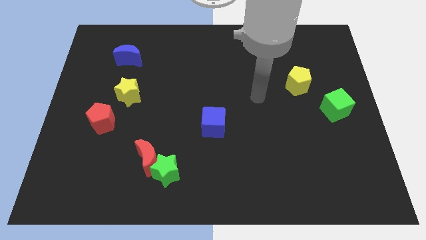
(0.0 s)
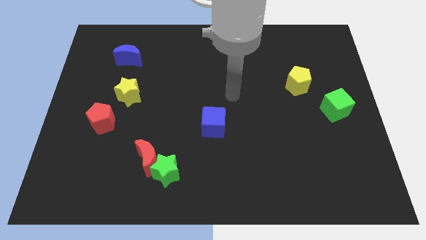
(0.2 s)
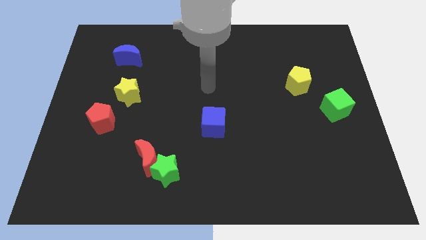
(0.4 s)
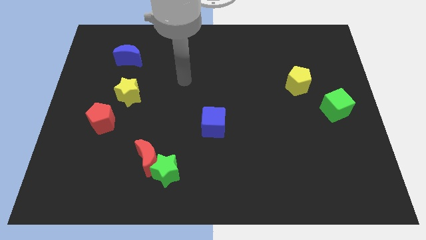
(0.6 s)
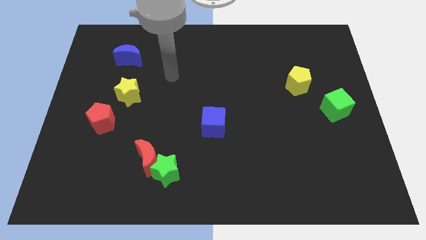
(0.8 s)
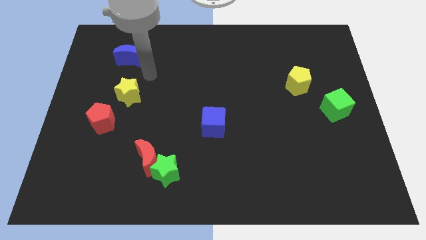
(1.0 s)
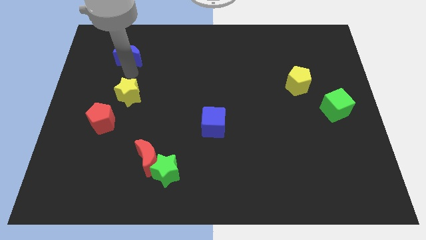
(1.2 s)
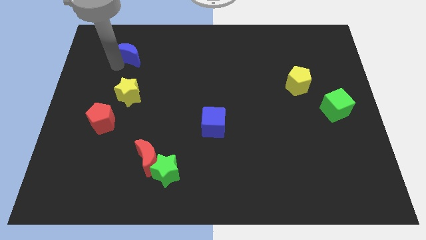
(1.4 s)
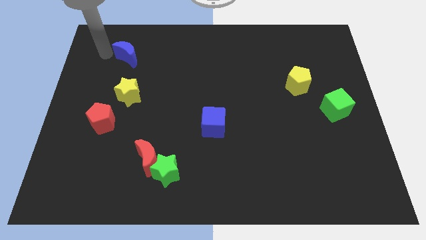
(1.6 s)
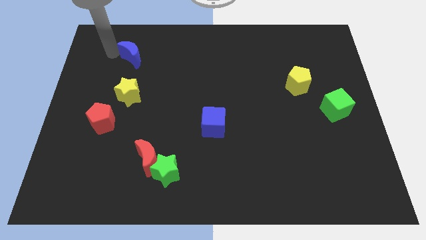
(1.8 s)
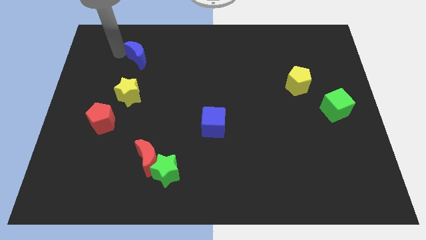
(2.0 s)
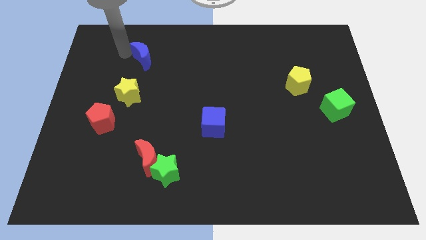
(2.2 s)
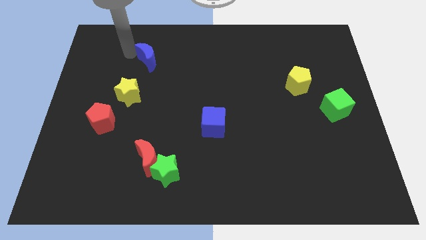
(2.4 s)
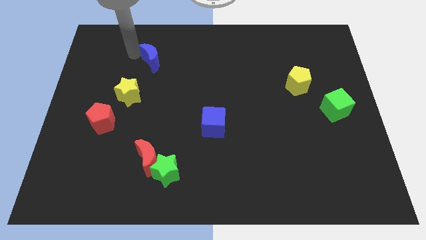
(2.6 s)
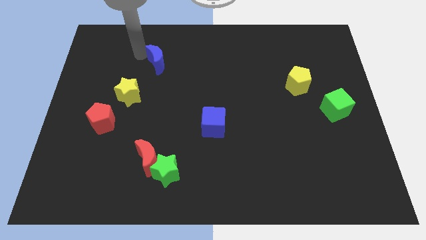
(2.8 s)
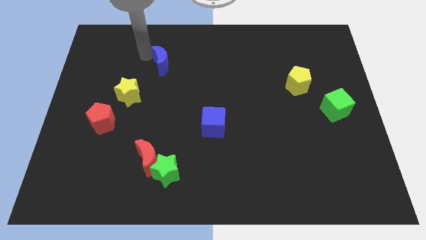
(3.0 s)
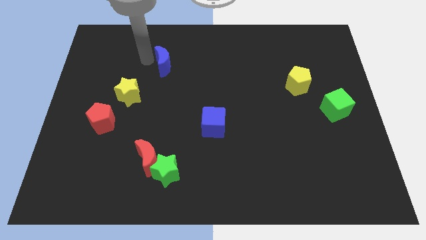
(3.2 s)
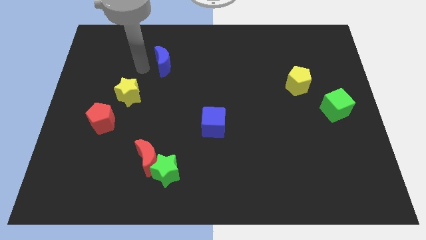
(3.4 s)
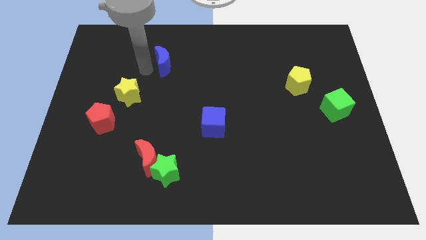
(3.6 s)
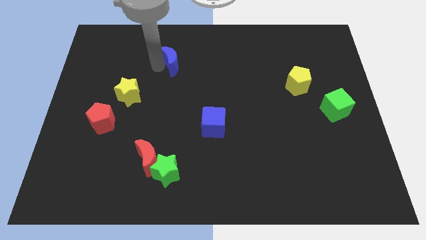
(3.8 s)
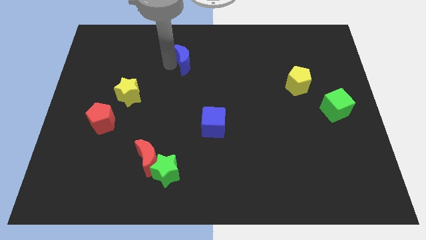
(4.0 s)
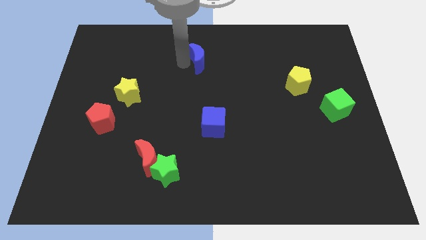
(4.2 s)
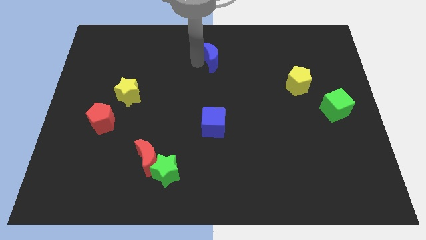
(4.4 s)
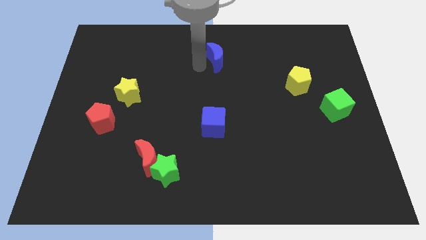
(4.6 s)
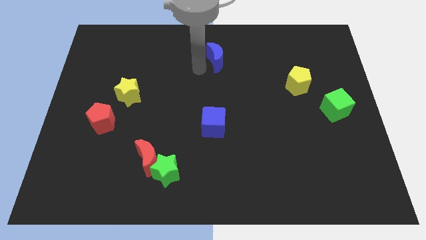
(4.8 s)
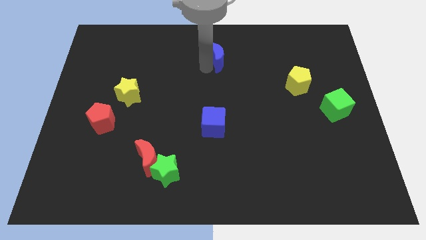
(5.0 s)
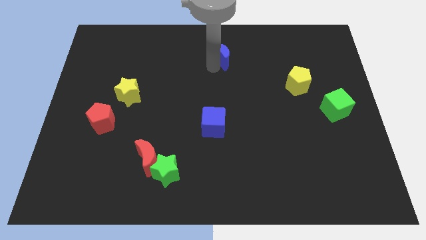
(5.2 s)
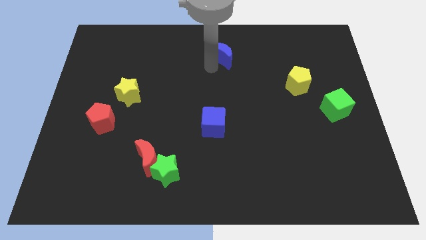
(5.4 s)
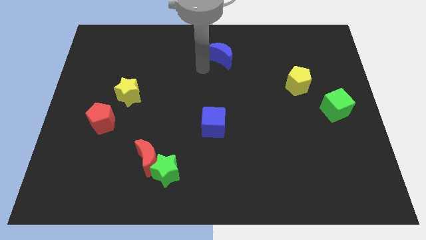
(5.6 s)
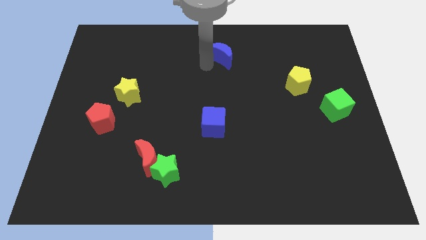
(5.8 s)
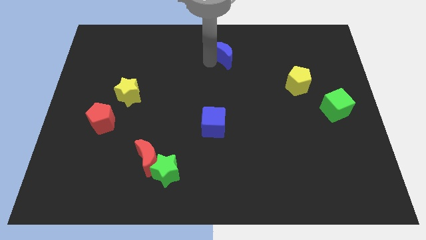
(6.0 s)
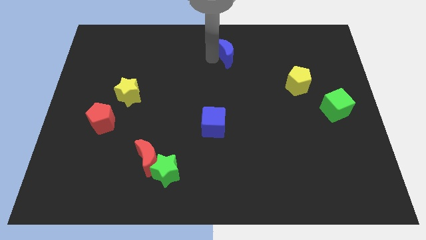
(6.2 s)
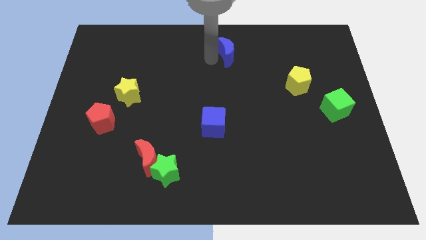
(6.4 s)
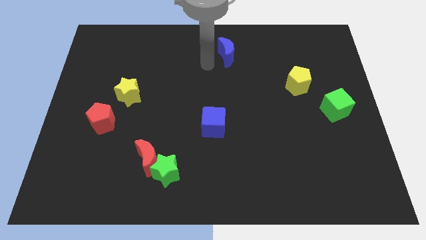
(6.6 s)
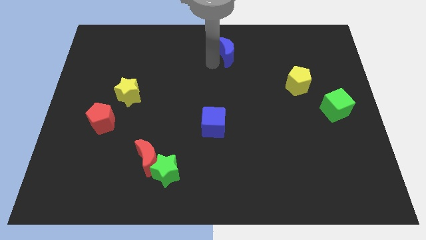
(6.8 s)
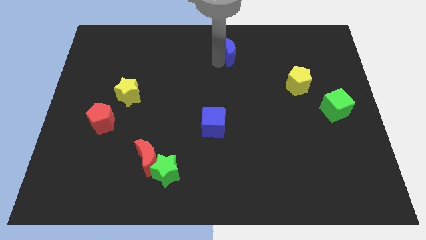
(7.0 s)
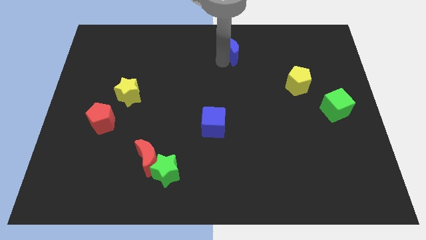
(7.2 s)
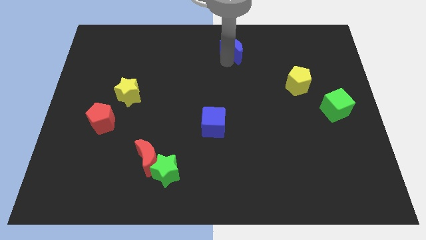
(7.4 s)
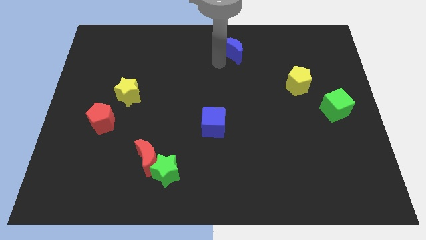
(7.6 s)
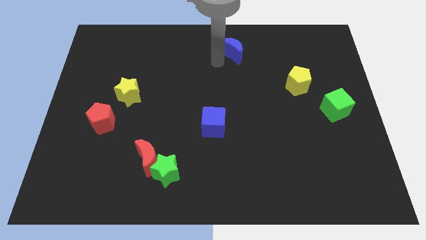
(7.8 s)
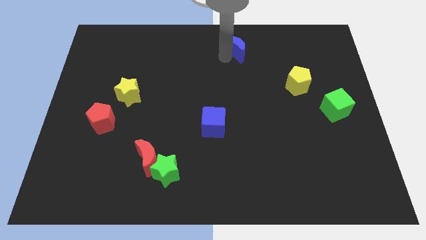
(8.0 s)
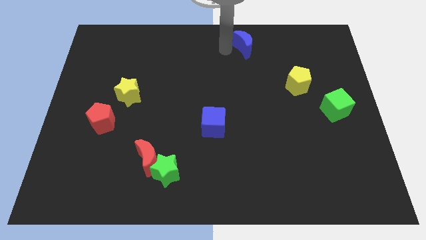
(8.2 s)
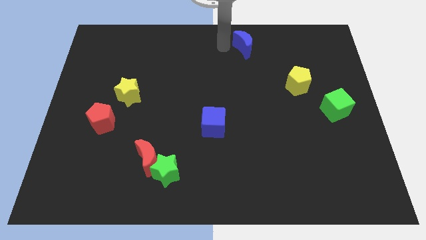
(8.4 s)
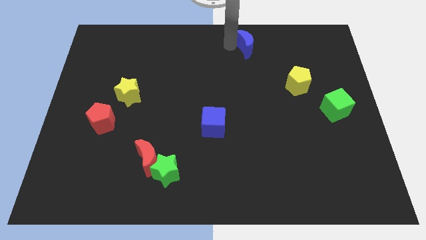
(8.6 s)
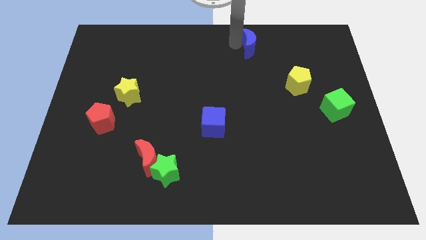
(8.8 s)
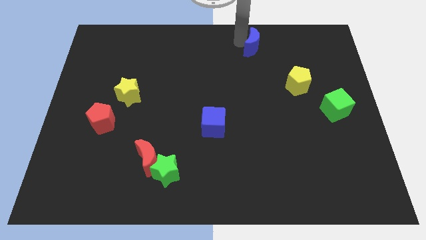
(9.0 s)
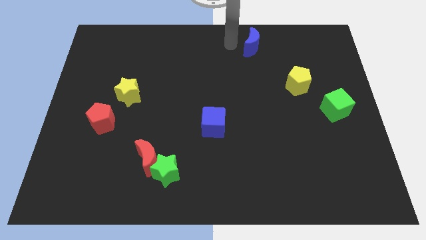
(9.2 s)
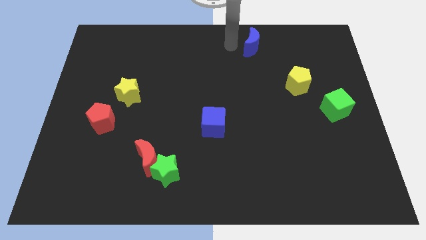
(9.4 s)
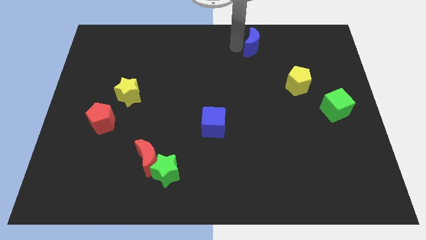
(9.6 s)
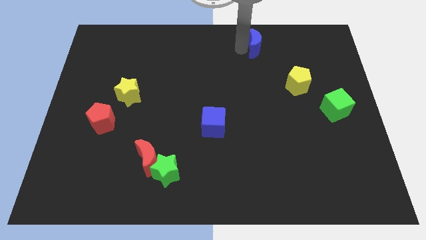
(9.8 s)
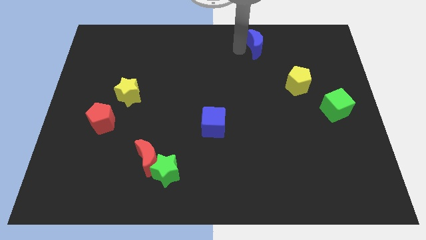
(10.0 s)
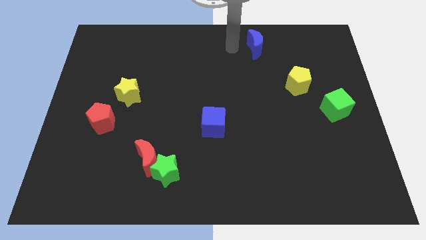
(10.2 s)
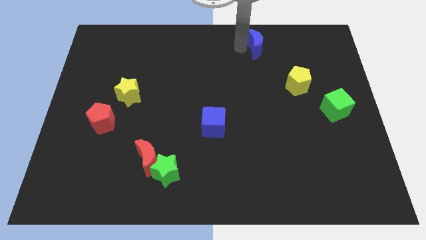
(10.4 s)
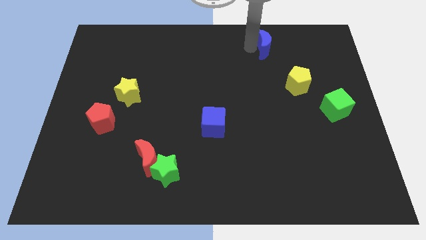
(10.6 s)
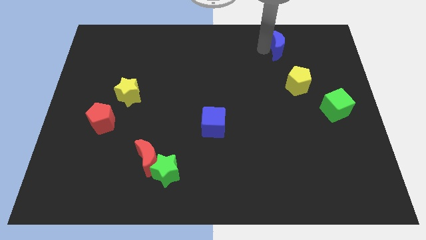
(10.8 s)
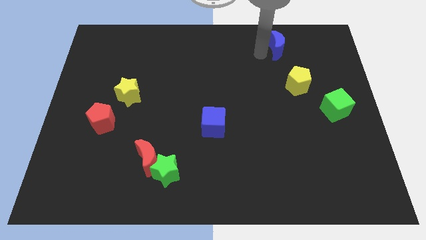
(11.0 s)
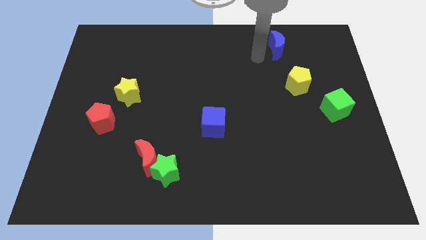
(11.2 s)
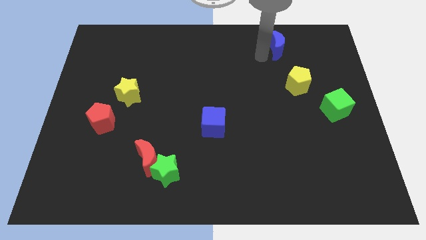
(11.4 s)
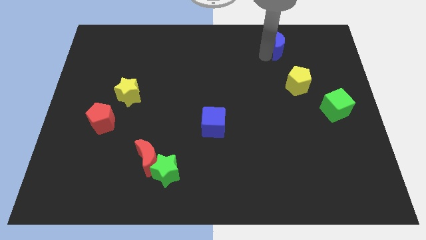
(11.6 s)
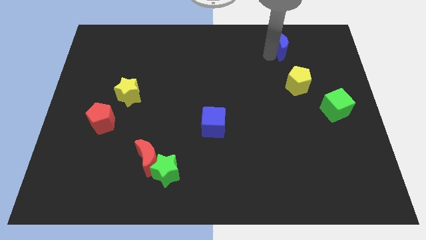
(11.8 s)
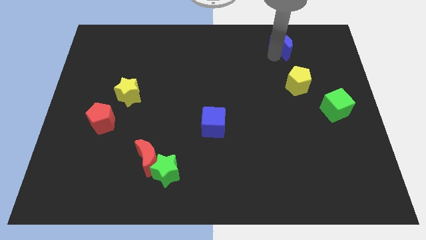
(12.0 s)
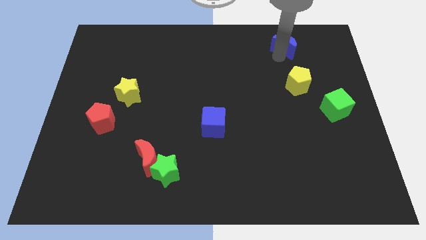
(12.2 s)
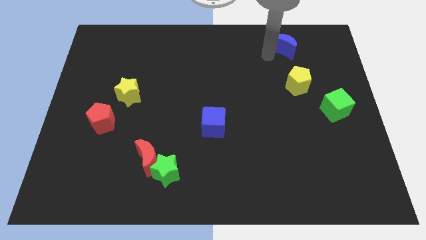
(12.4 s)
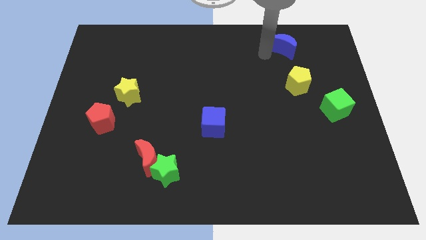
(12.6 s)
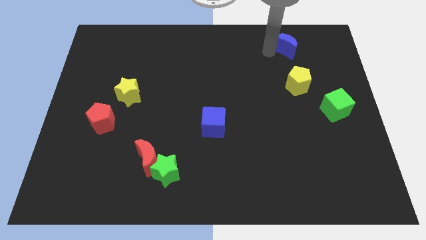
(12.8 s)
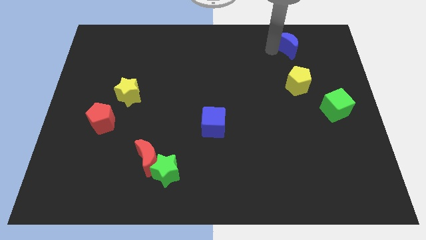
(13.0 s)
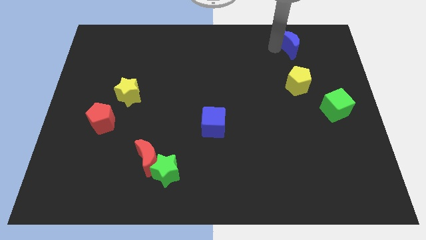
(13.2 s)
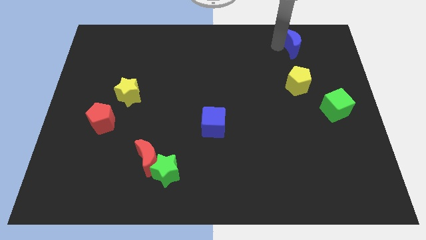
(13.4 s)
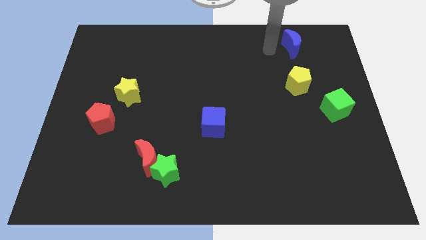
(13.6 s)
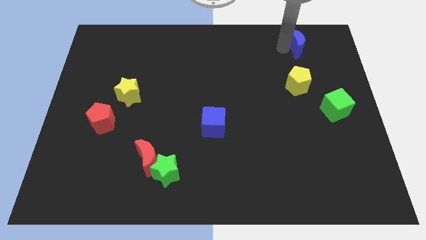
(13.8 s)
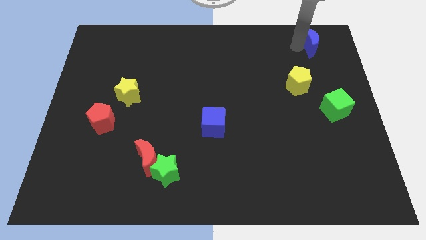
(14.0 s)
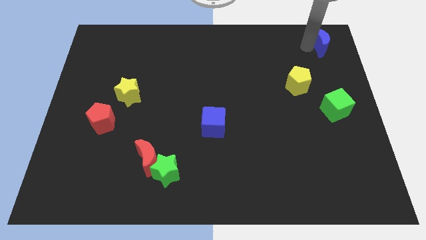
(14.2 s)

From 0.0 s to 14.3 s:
slide the blue moon to the top right of the board

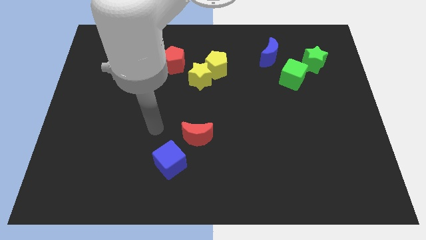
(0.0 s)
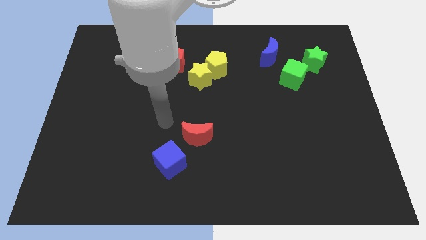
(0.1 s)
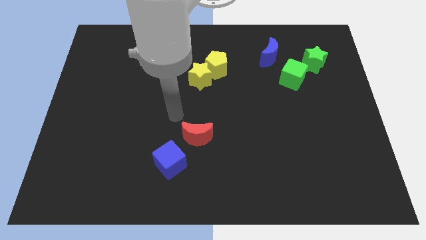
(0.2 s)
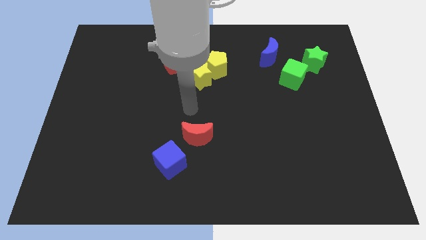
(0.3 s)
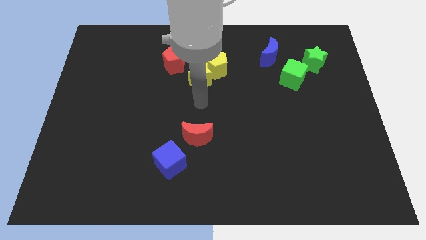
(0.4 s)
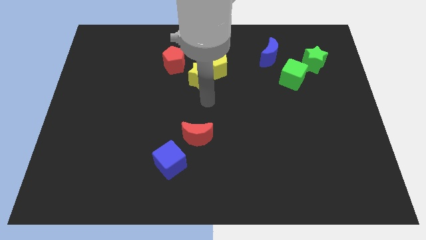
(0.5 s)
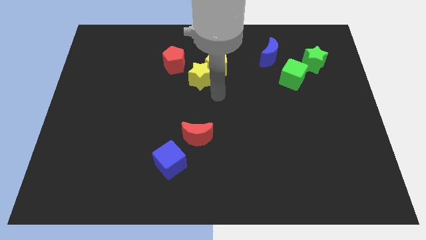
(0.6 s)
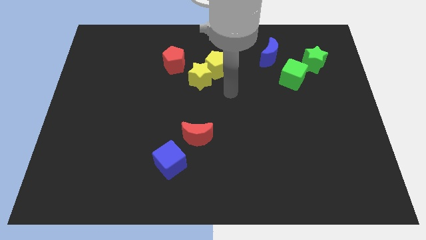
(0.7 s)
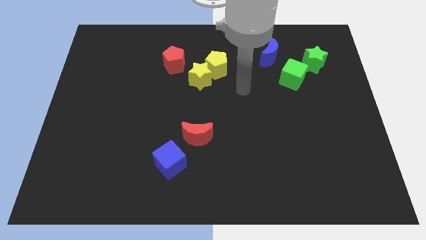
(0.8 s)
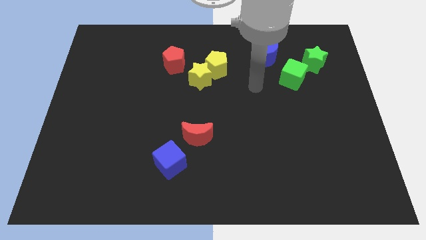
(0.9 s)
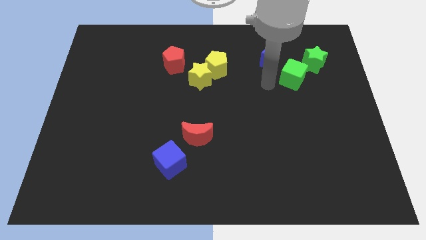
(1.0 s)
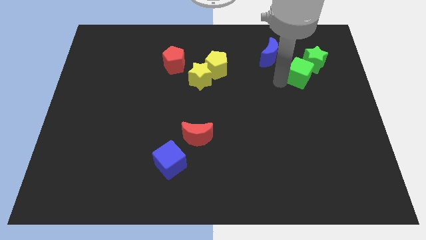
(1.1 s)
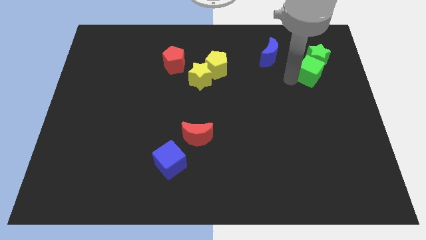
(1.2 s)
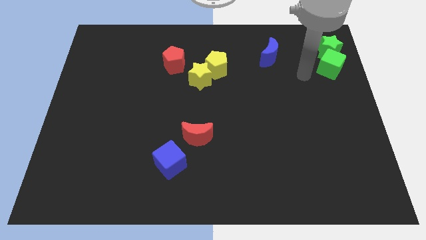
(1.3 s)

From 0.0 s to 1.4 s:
push the green star to the top right of the board
